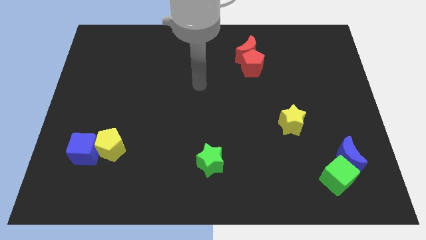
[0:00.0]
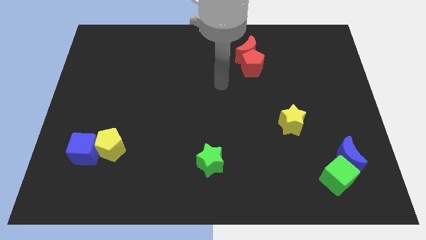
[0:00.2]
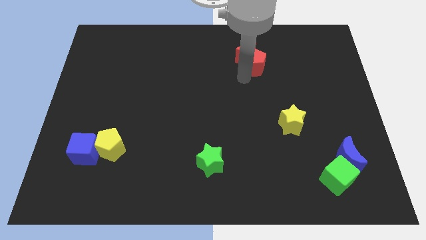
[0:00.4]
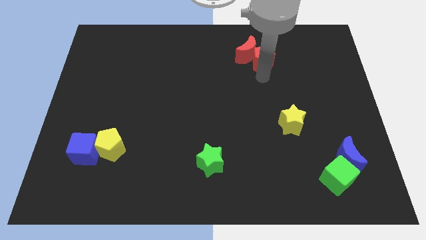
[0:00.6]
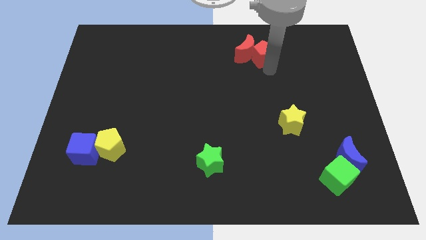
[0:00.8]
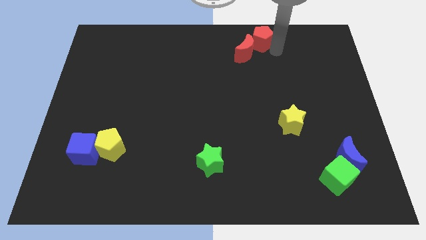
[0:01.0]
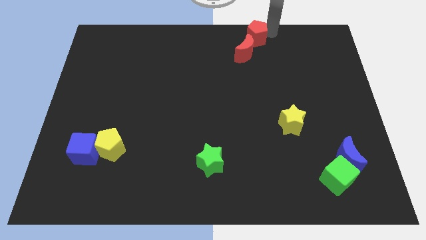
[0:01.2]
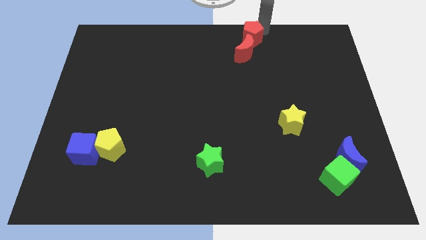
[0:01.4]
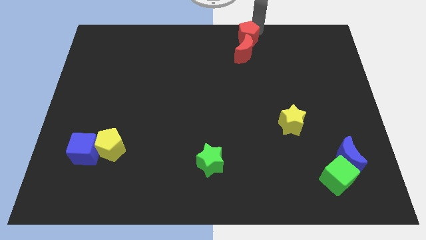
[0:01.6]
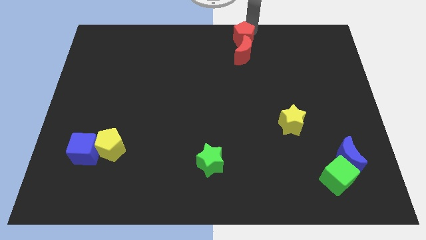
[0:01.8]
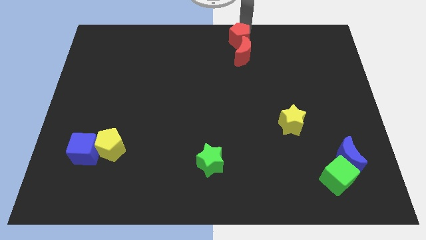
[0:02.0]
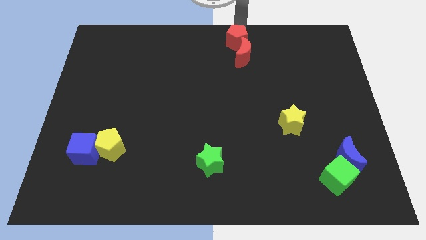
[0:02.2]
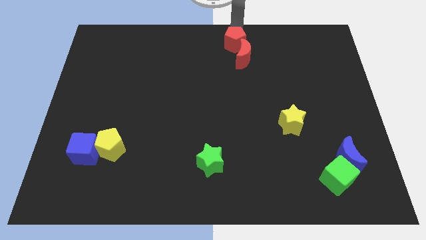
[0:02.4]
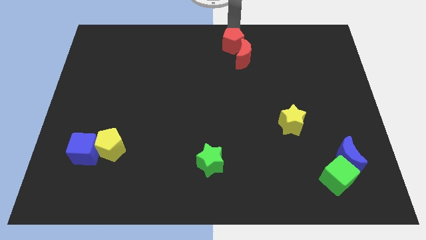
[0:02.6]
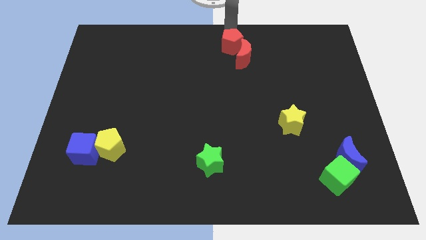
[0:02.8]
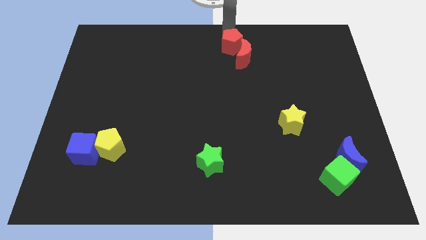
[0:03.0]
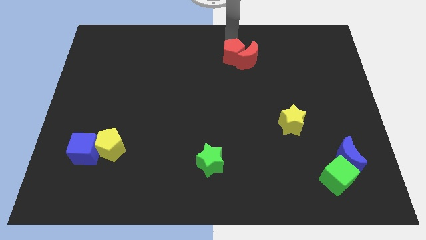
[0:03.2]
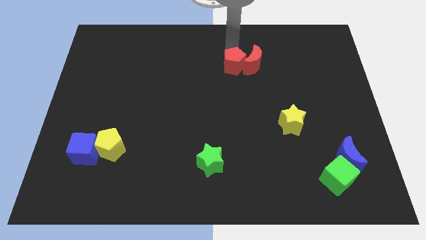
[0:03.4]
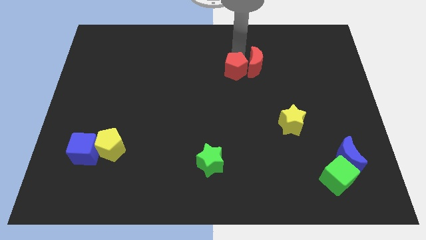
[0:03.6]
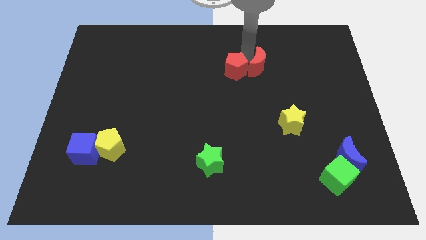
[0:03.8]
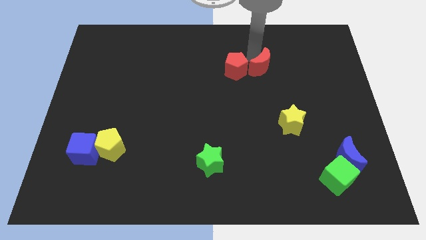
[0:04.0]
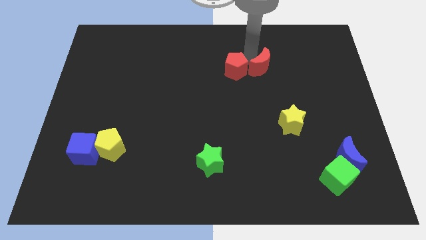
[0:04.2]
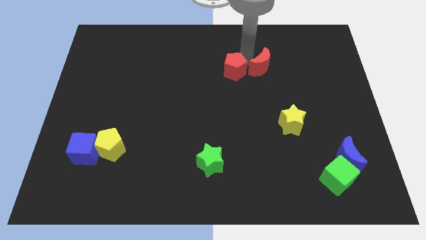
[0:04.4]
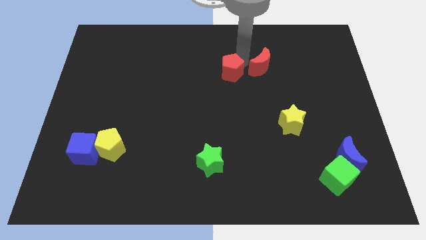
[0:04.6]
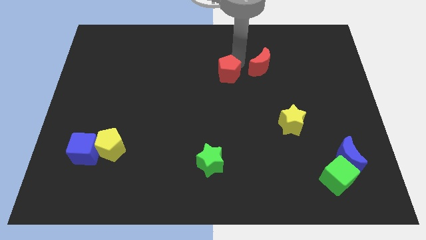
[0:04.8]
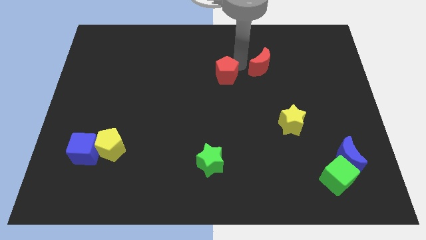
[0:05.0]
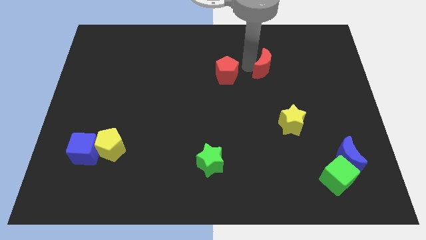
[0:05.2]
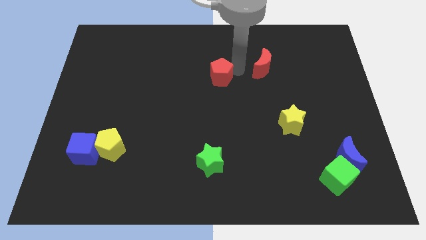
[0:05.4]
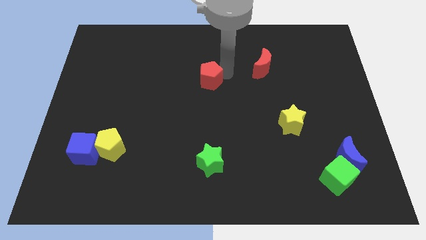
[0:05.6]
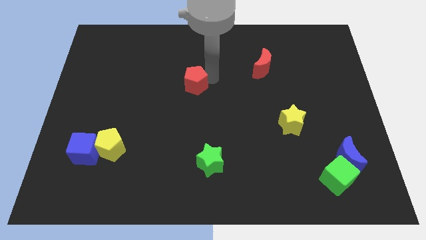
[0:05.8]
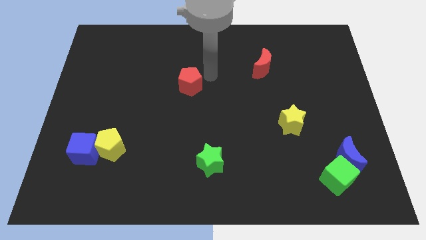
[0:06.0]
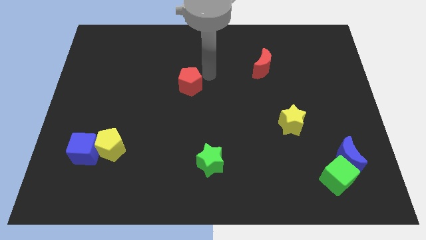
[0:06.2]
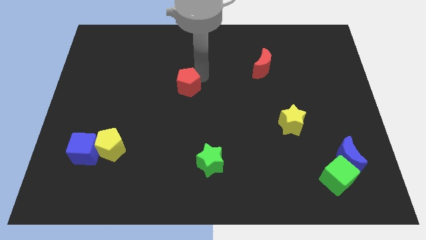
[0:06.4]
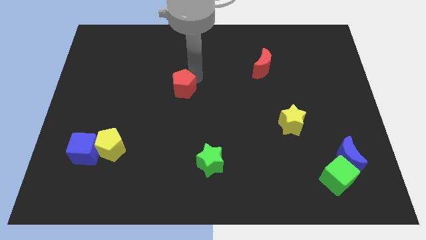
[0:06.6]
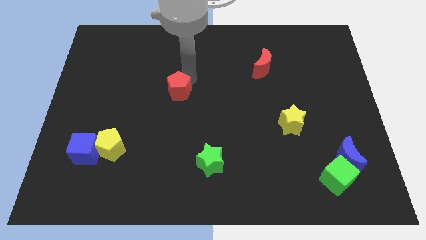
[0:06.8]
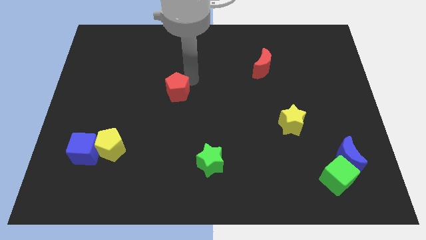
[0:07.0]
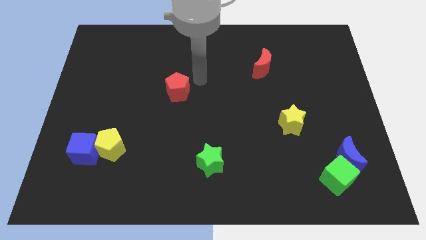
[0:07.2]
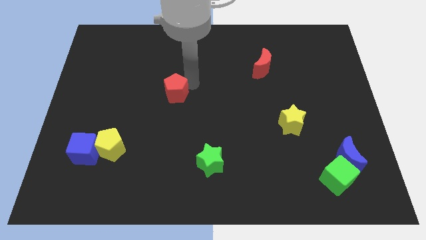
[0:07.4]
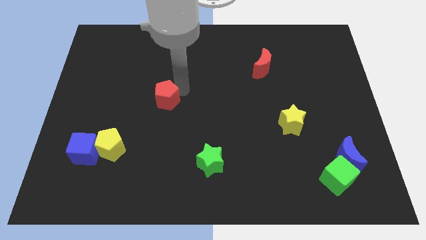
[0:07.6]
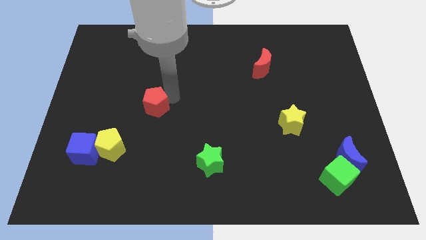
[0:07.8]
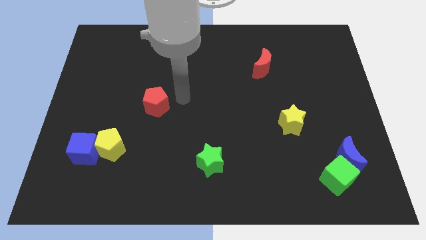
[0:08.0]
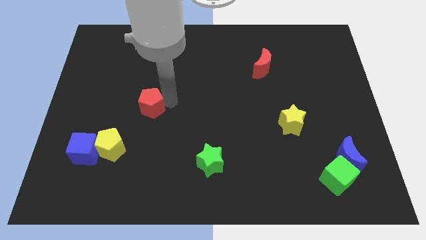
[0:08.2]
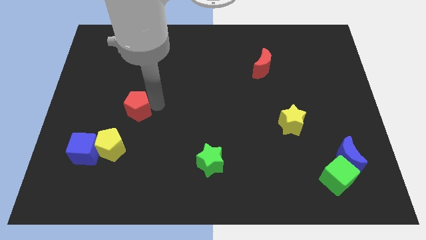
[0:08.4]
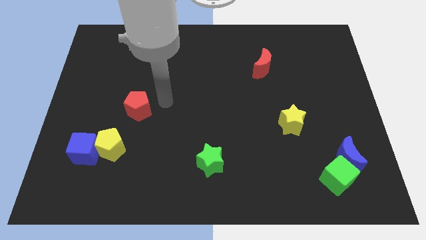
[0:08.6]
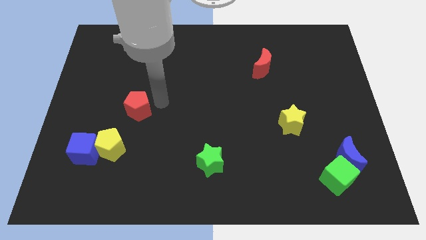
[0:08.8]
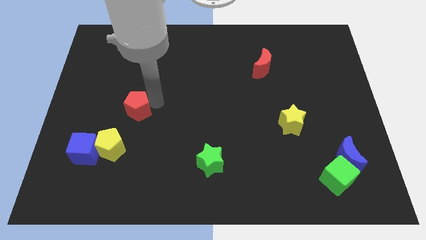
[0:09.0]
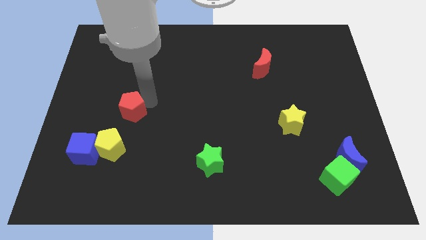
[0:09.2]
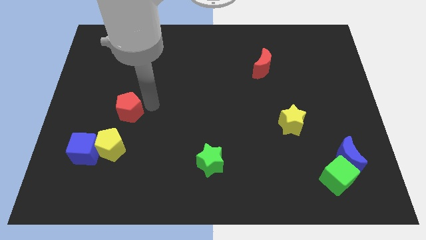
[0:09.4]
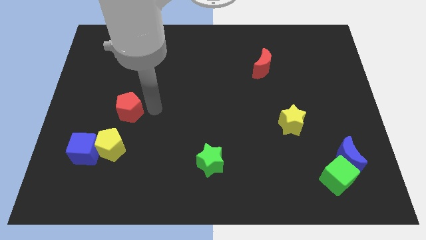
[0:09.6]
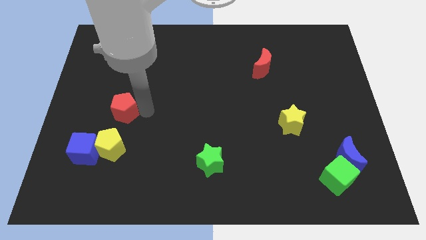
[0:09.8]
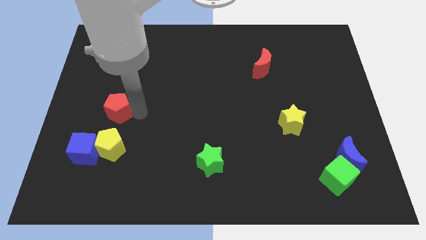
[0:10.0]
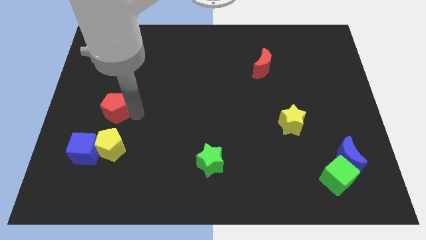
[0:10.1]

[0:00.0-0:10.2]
put the red pentagon to the top of the blue cube

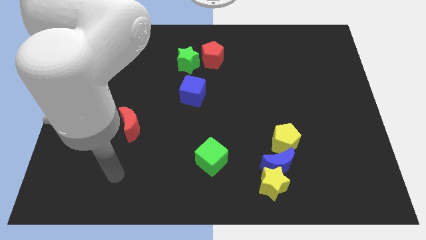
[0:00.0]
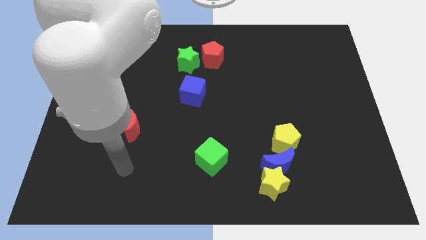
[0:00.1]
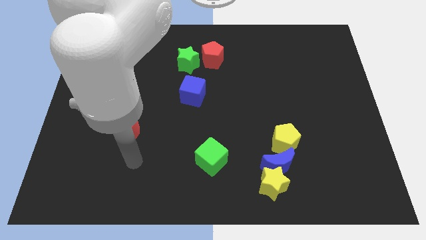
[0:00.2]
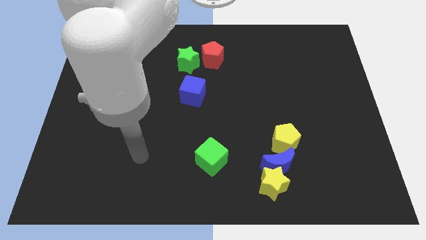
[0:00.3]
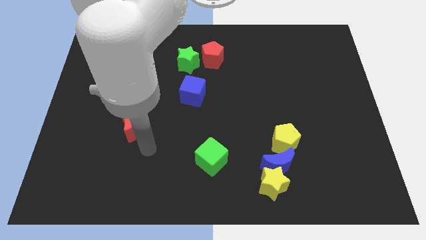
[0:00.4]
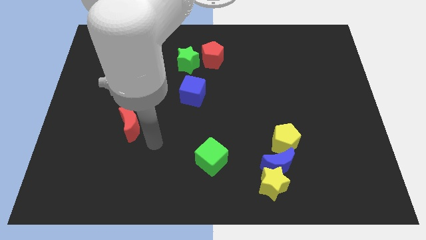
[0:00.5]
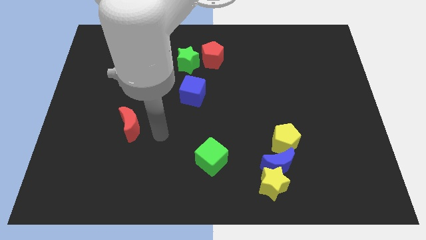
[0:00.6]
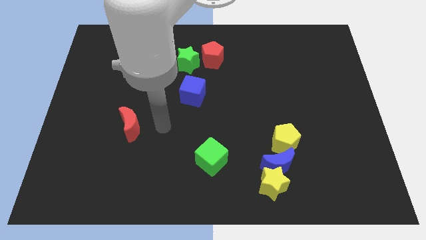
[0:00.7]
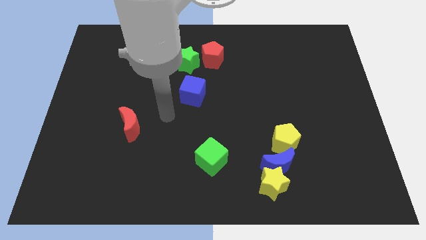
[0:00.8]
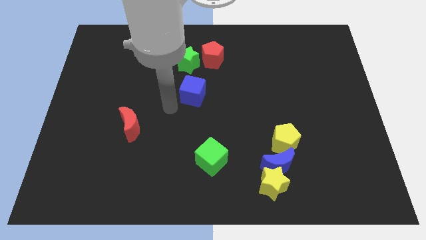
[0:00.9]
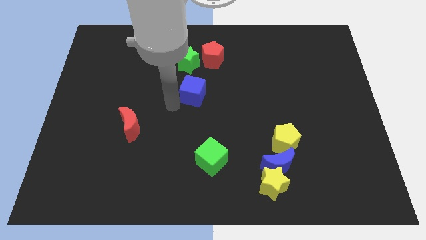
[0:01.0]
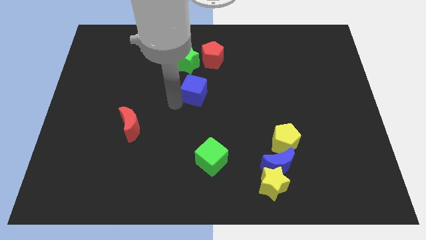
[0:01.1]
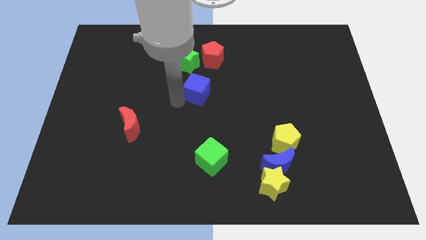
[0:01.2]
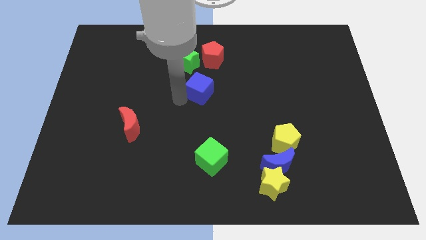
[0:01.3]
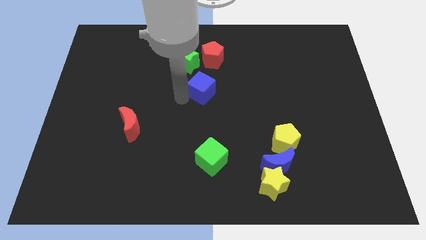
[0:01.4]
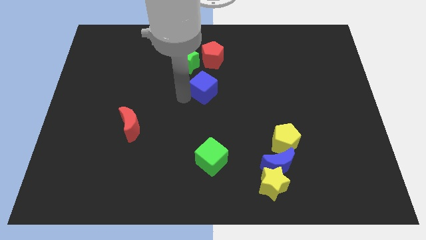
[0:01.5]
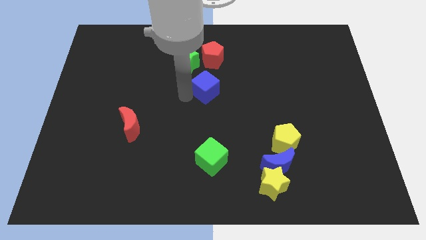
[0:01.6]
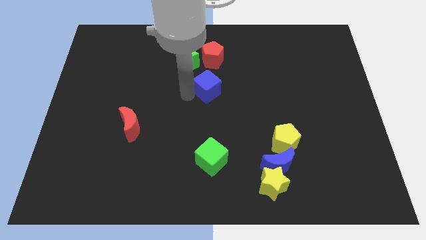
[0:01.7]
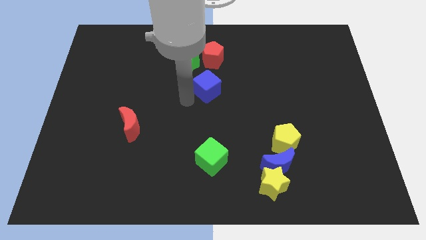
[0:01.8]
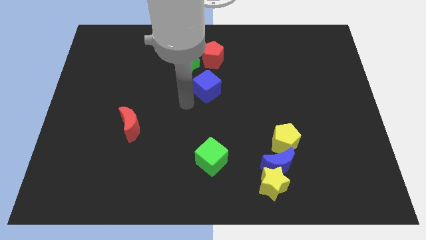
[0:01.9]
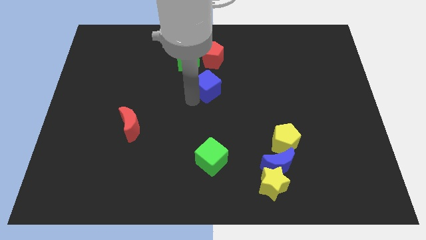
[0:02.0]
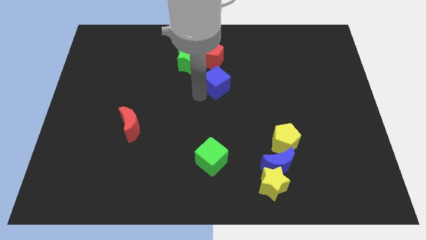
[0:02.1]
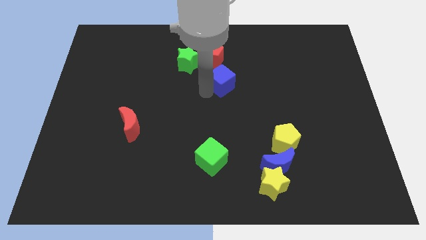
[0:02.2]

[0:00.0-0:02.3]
move the blue cube to the bottom right side of the red pentagon
